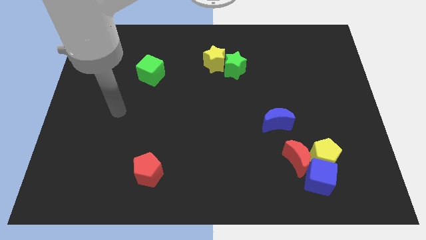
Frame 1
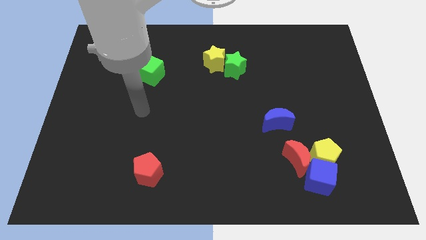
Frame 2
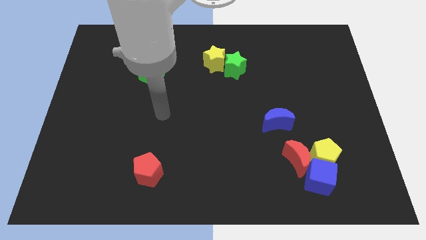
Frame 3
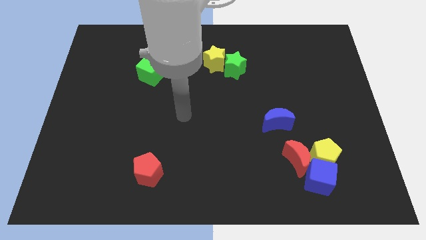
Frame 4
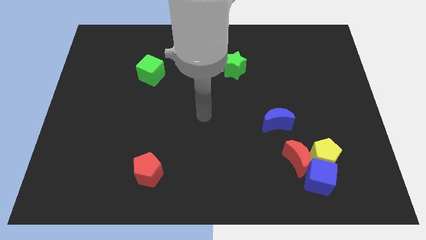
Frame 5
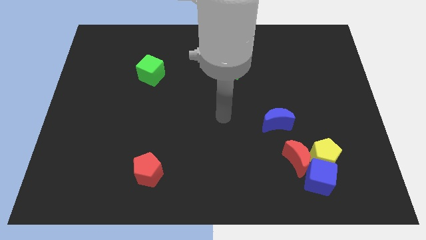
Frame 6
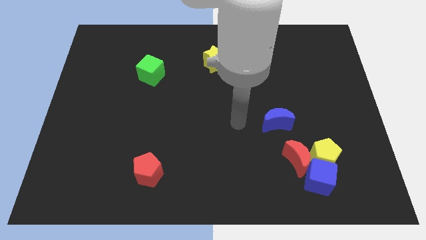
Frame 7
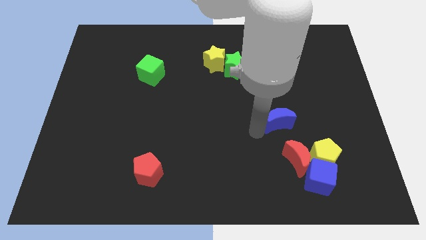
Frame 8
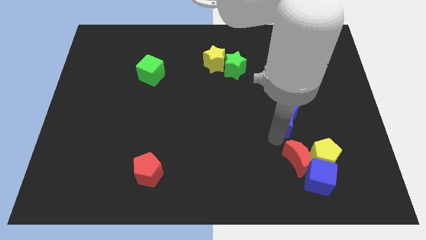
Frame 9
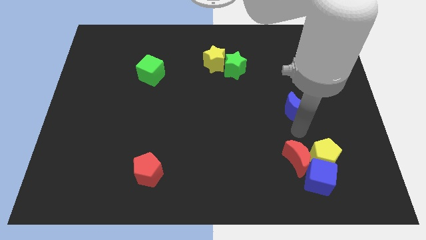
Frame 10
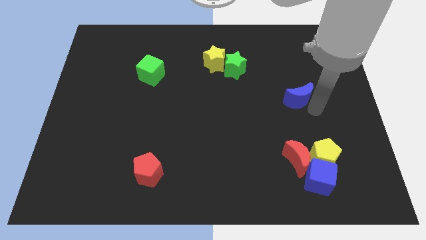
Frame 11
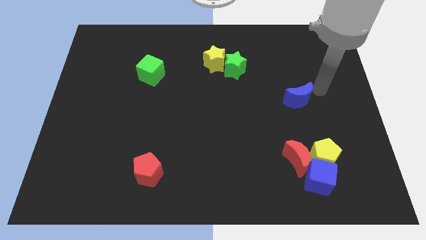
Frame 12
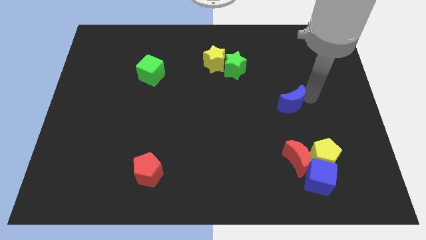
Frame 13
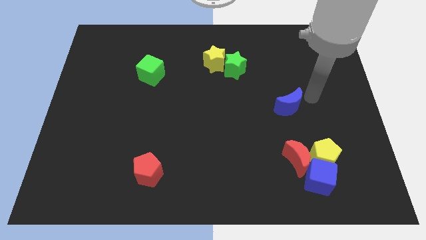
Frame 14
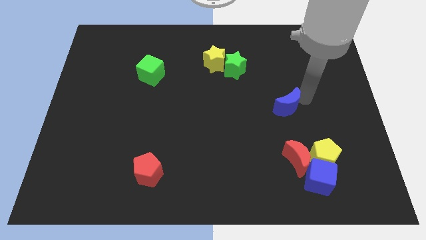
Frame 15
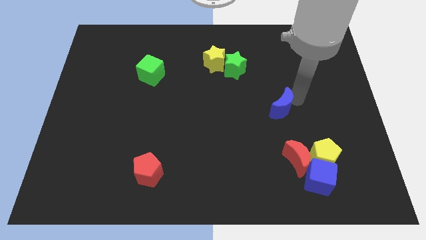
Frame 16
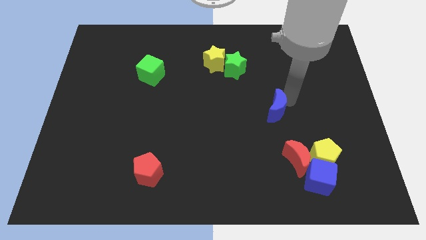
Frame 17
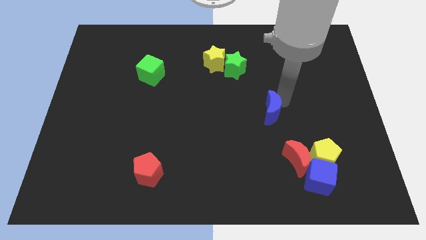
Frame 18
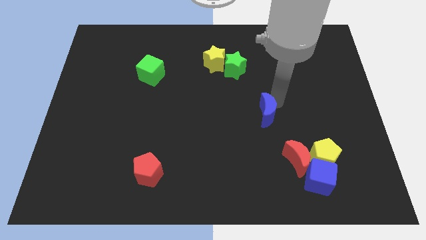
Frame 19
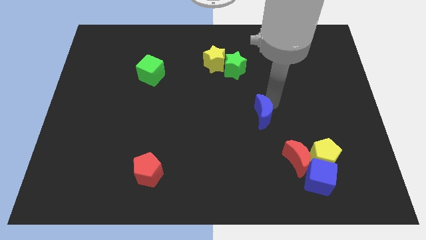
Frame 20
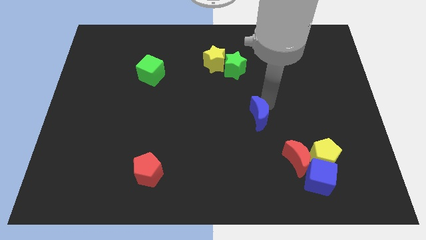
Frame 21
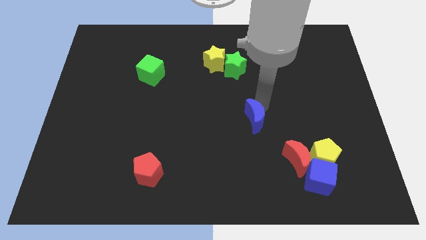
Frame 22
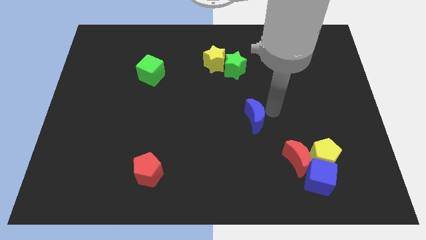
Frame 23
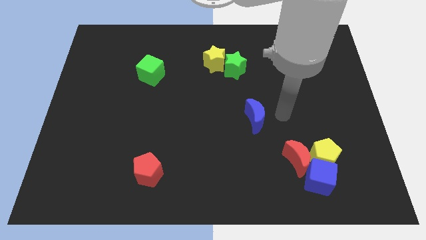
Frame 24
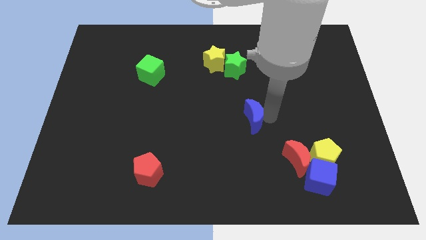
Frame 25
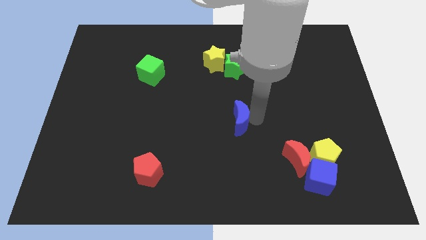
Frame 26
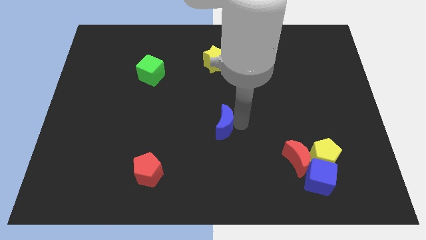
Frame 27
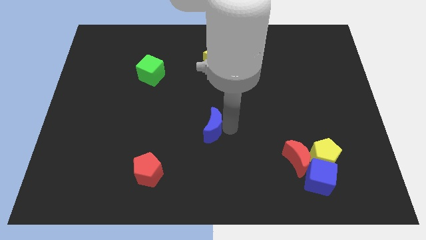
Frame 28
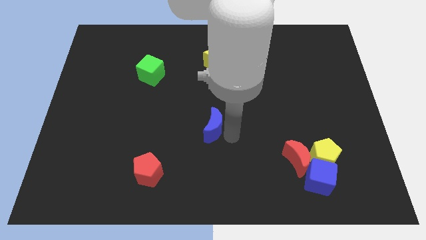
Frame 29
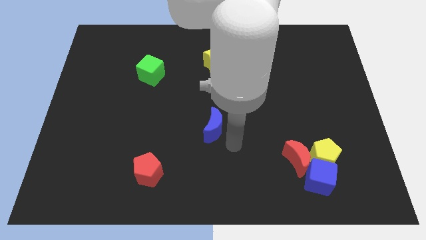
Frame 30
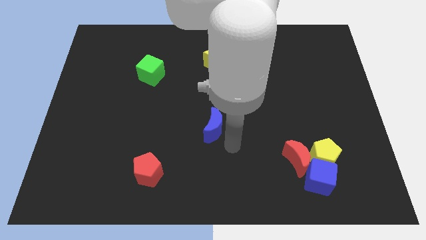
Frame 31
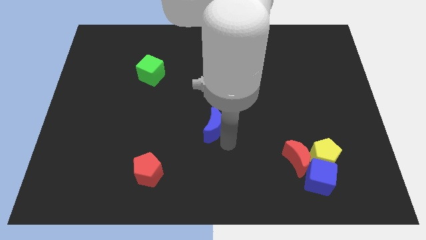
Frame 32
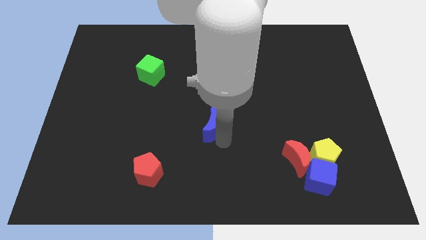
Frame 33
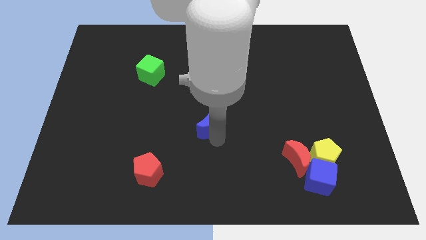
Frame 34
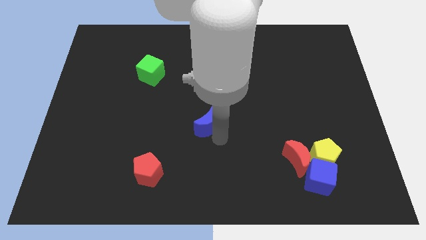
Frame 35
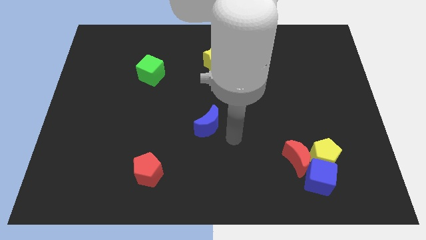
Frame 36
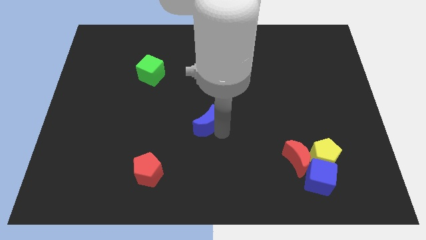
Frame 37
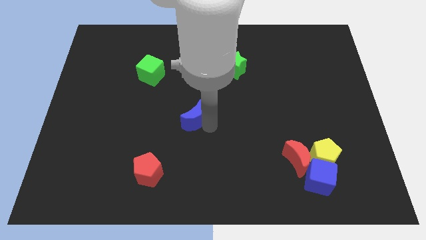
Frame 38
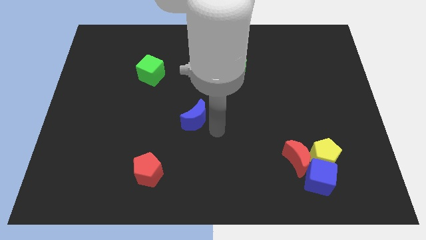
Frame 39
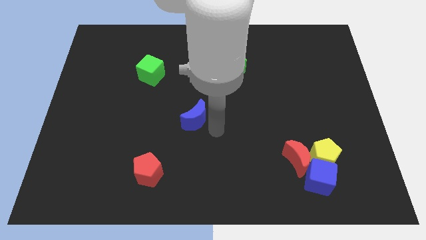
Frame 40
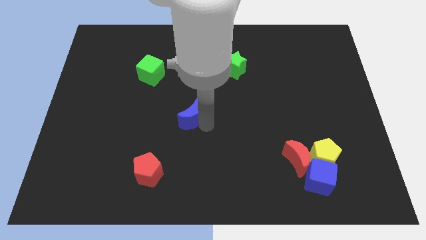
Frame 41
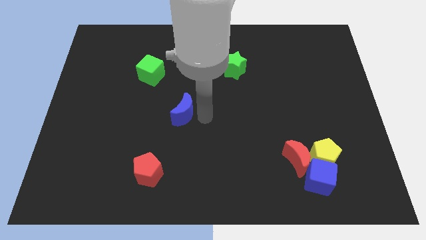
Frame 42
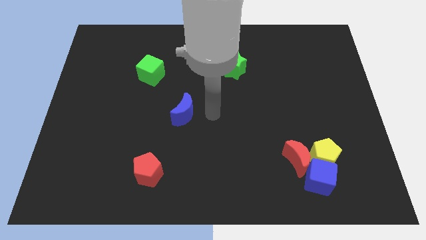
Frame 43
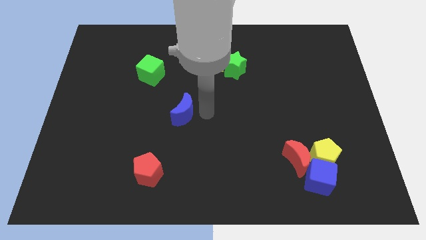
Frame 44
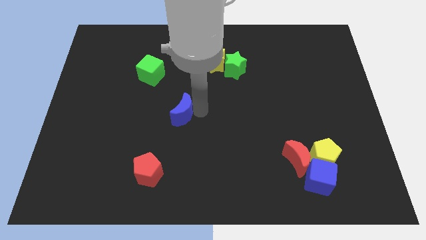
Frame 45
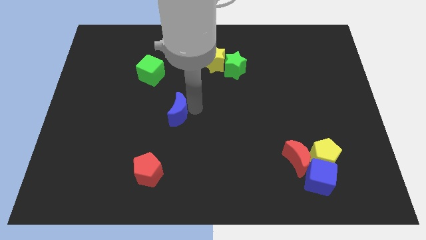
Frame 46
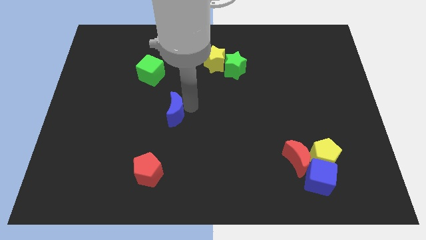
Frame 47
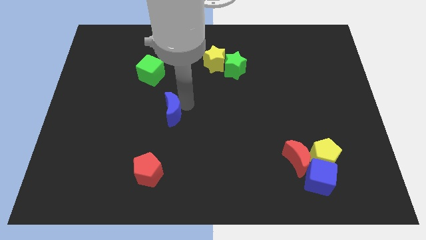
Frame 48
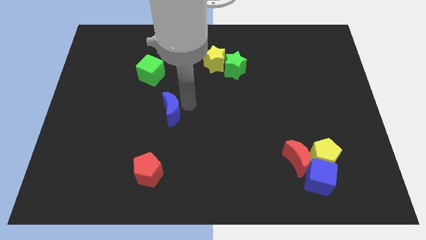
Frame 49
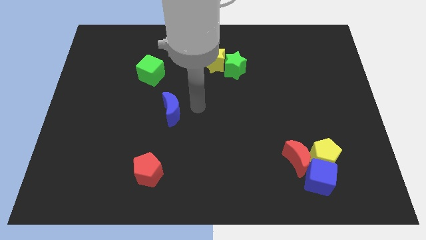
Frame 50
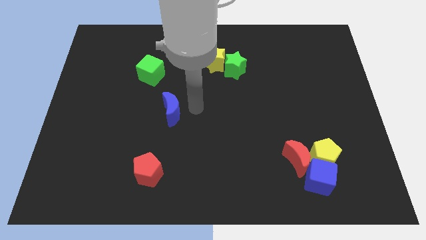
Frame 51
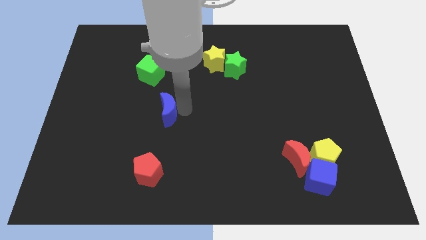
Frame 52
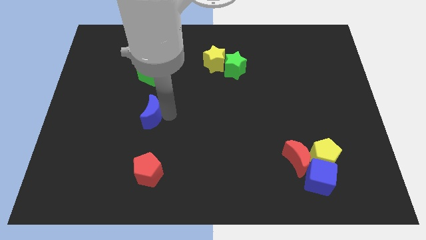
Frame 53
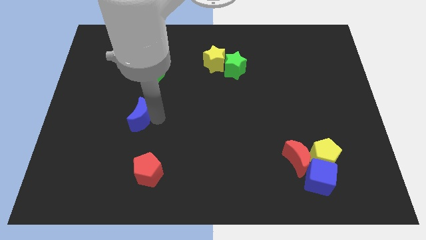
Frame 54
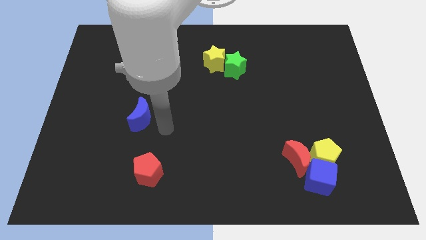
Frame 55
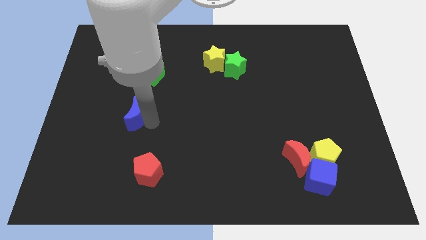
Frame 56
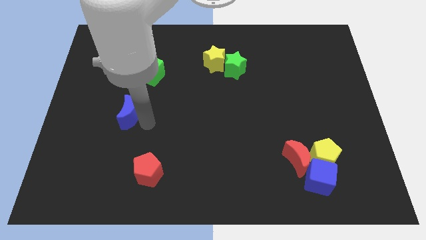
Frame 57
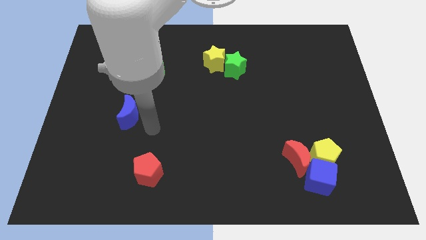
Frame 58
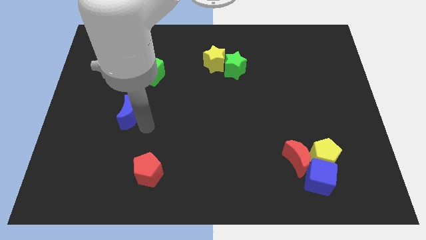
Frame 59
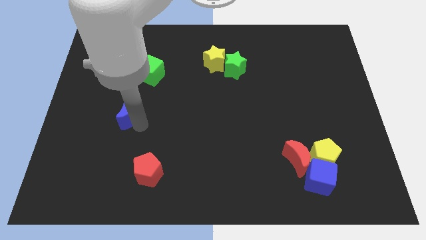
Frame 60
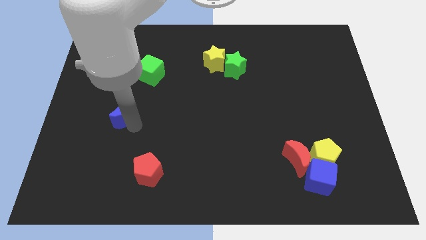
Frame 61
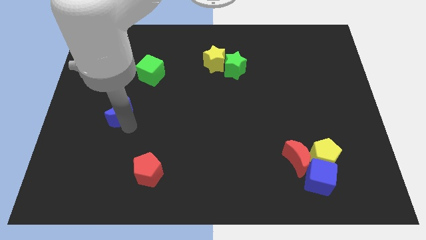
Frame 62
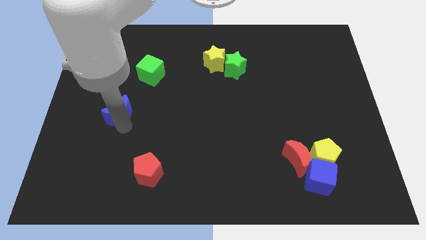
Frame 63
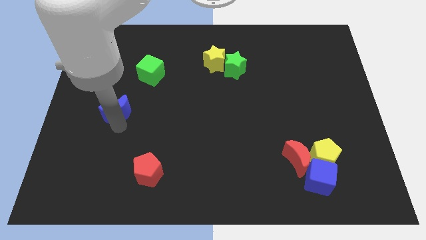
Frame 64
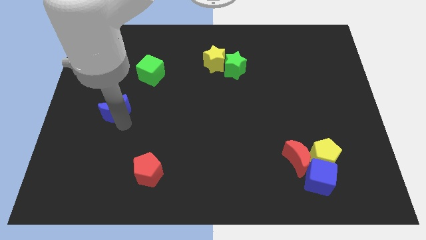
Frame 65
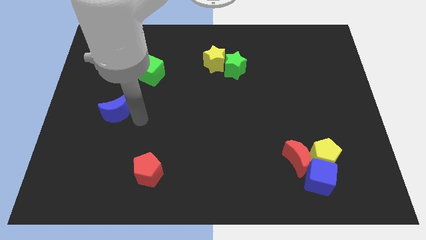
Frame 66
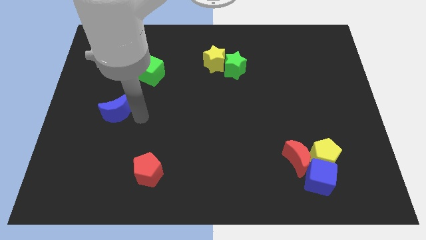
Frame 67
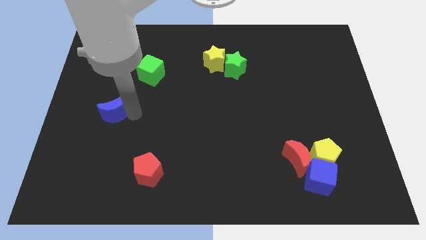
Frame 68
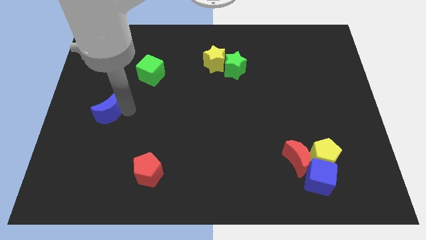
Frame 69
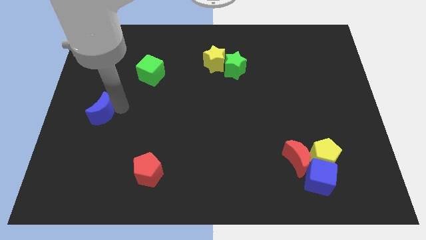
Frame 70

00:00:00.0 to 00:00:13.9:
push the blue moon to the center left
